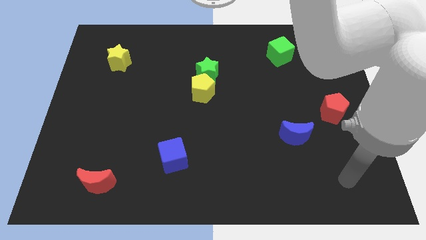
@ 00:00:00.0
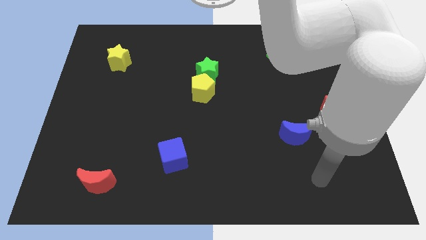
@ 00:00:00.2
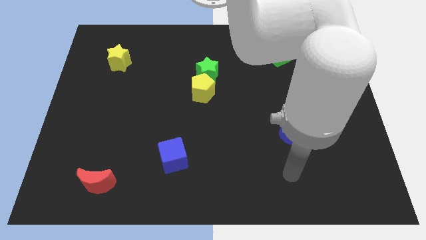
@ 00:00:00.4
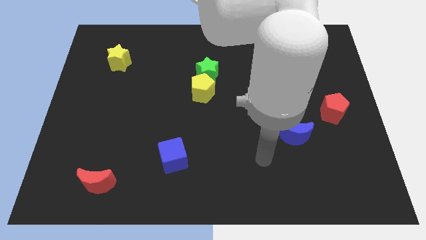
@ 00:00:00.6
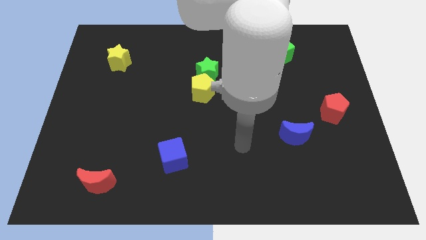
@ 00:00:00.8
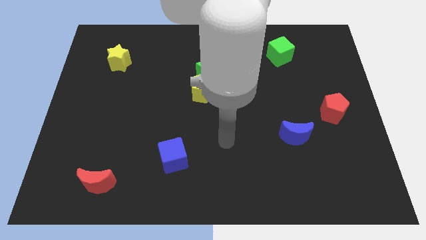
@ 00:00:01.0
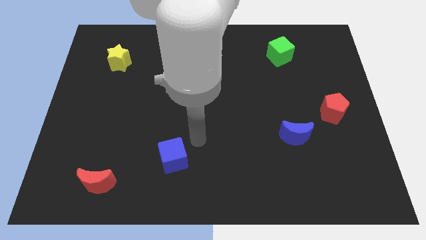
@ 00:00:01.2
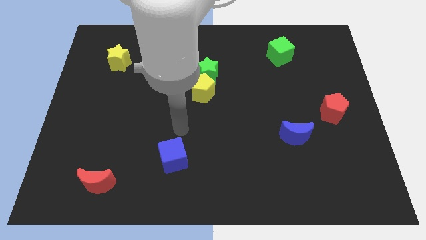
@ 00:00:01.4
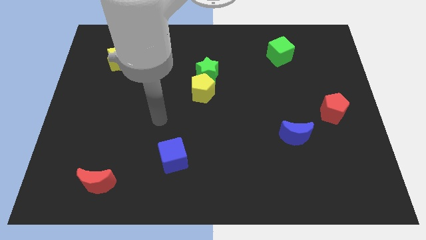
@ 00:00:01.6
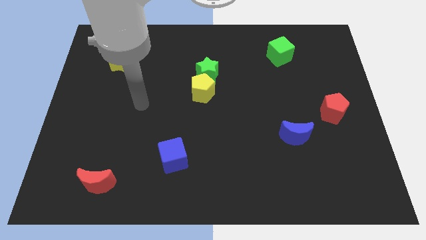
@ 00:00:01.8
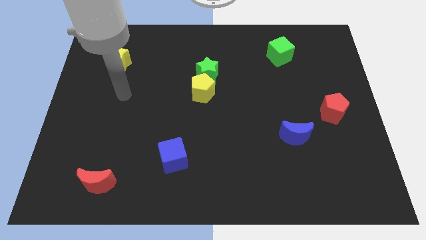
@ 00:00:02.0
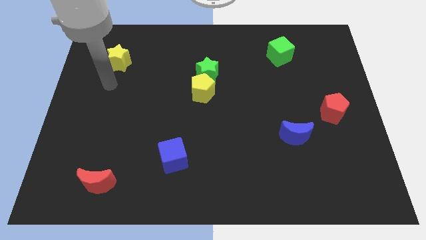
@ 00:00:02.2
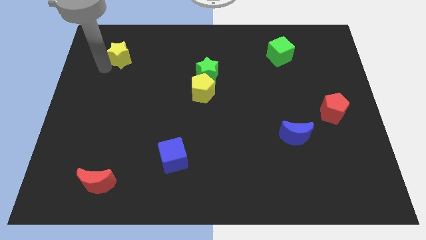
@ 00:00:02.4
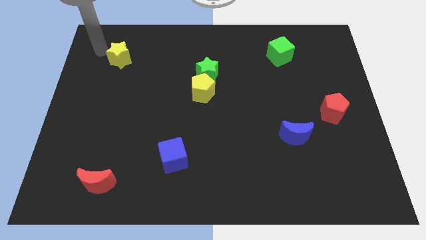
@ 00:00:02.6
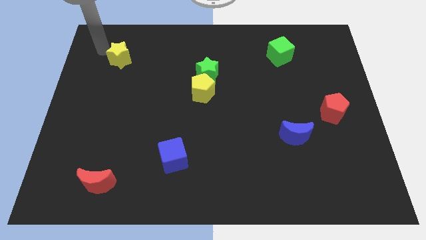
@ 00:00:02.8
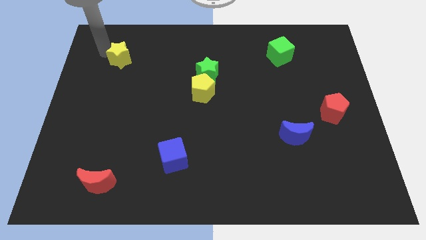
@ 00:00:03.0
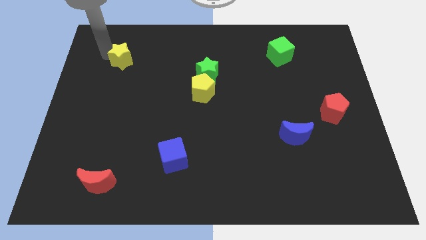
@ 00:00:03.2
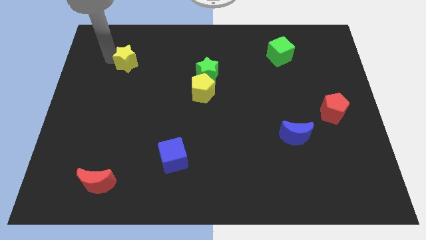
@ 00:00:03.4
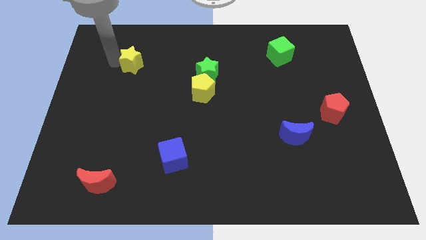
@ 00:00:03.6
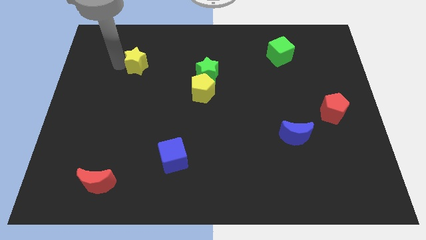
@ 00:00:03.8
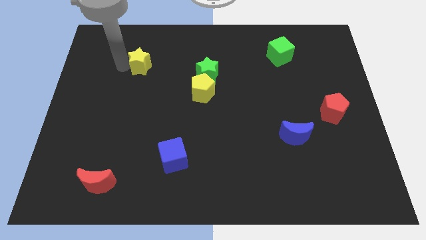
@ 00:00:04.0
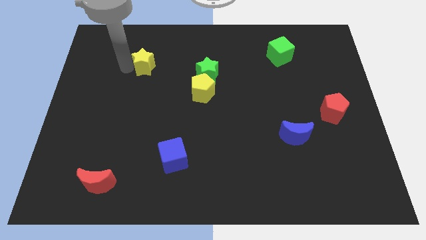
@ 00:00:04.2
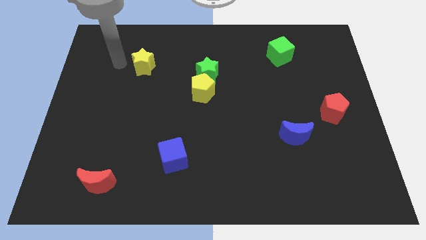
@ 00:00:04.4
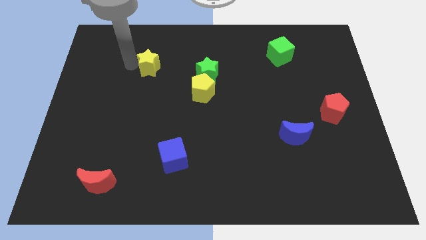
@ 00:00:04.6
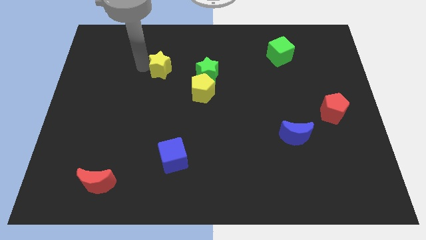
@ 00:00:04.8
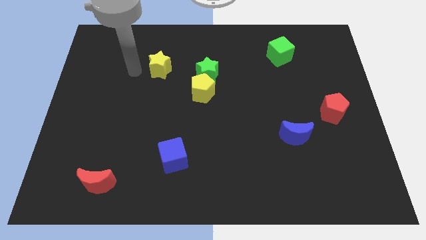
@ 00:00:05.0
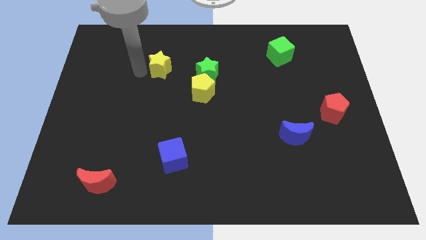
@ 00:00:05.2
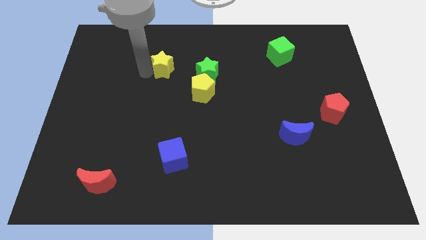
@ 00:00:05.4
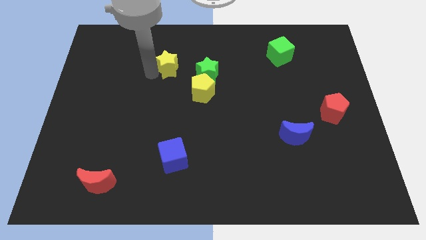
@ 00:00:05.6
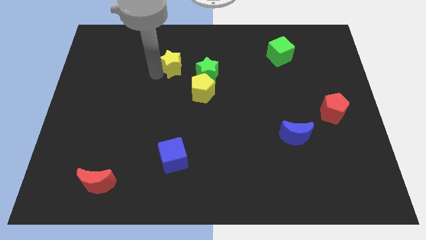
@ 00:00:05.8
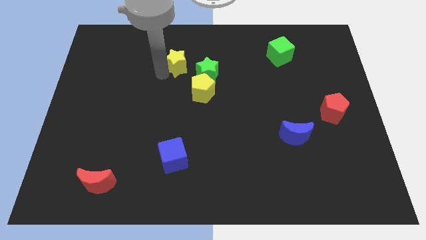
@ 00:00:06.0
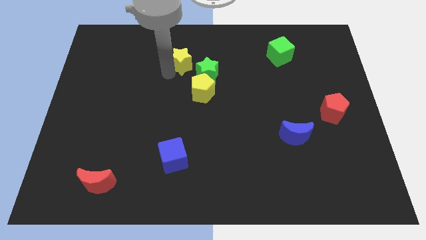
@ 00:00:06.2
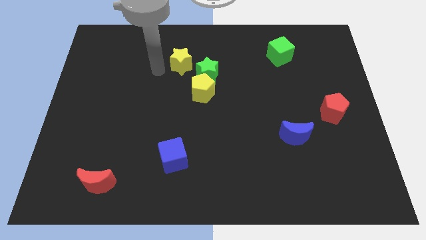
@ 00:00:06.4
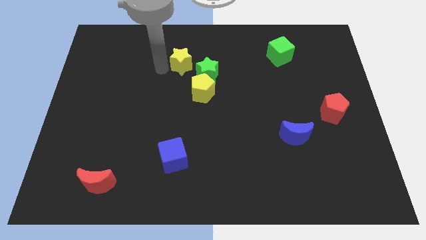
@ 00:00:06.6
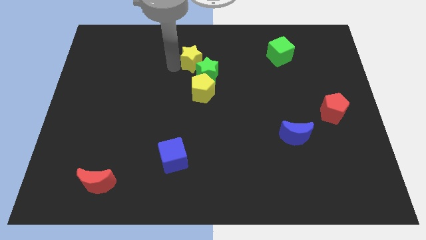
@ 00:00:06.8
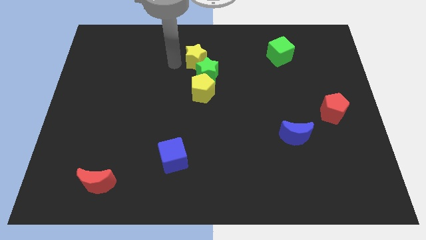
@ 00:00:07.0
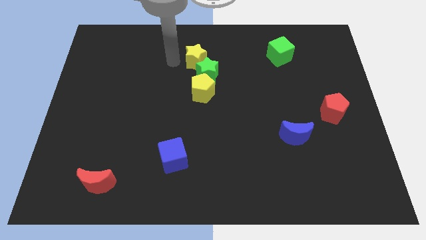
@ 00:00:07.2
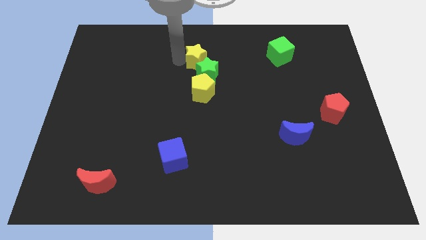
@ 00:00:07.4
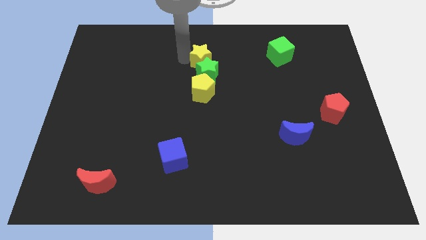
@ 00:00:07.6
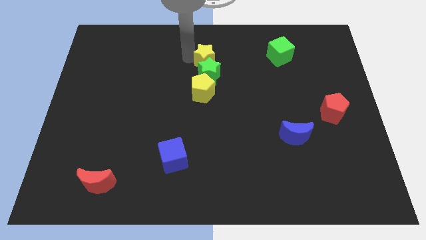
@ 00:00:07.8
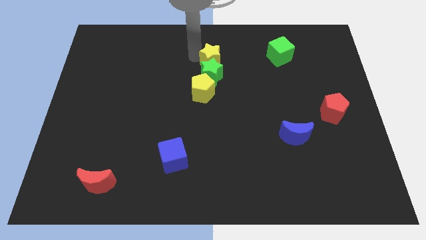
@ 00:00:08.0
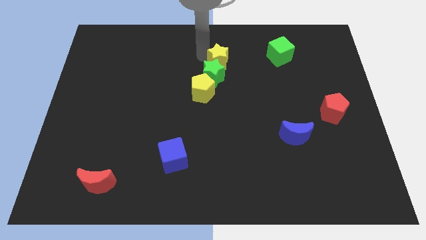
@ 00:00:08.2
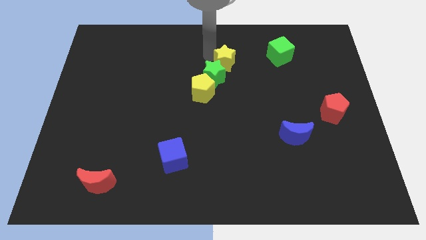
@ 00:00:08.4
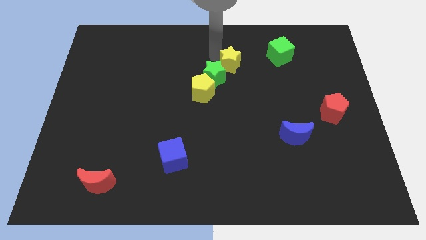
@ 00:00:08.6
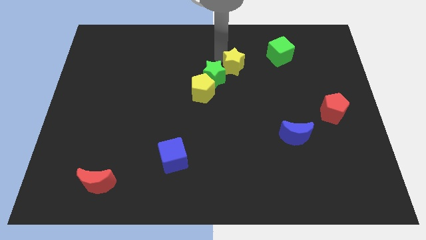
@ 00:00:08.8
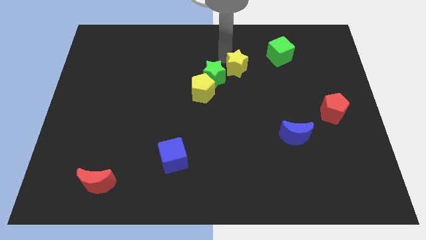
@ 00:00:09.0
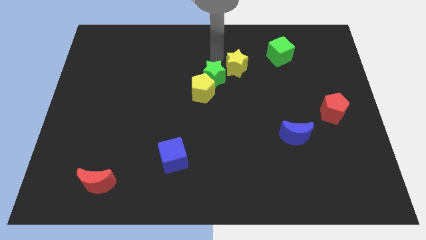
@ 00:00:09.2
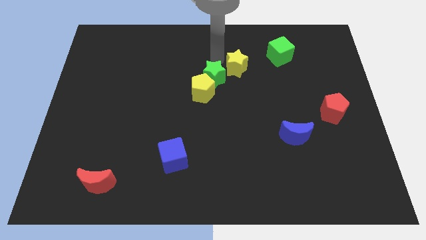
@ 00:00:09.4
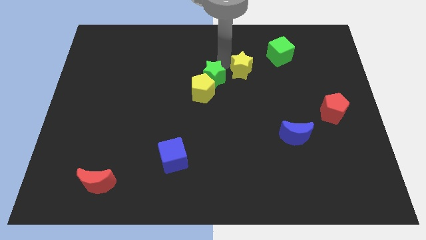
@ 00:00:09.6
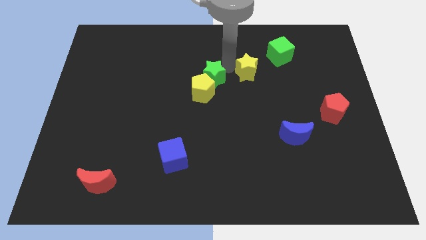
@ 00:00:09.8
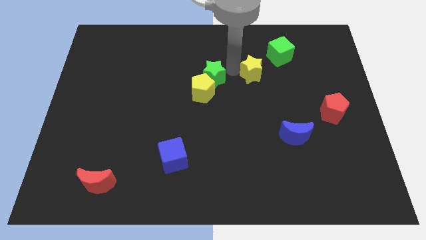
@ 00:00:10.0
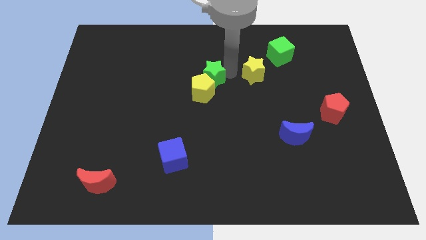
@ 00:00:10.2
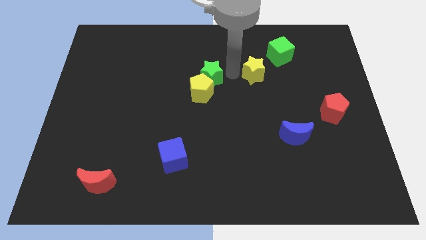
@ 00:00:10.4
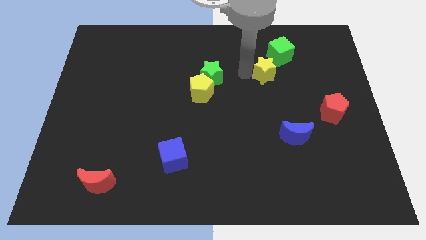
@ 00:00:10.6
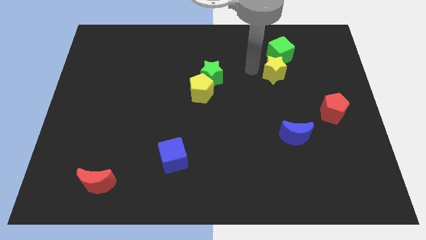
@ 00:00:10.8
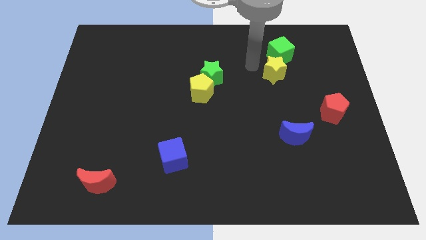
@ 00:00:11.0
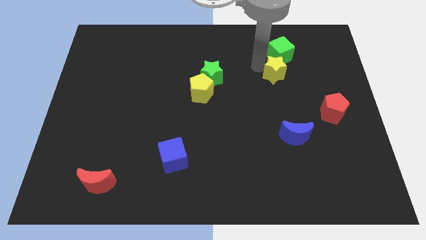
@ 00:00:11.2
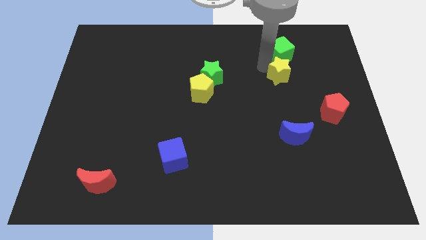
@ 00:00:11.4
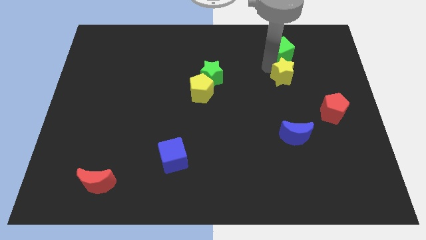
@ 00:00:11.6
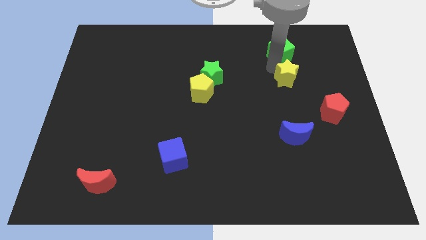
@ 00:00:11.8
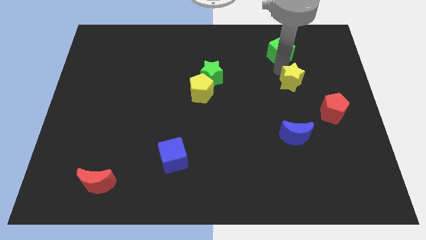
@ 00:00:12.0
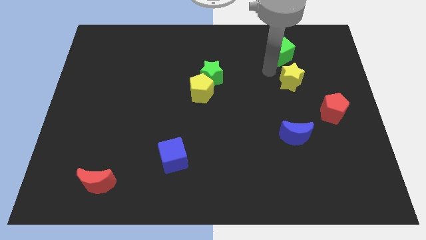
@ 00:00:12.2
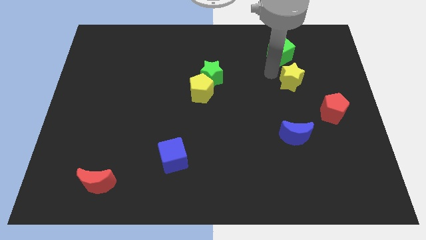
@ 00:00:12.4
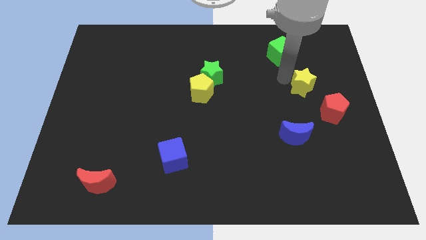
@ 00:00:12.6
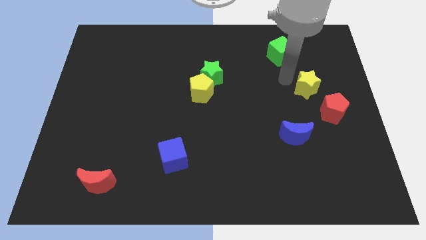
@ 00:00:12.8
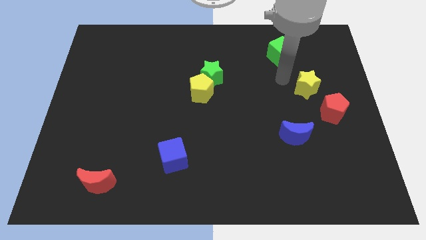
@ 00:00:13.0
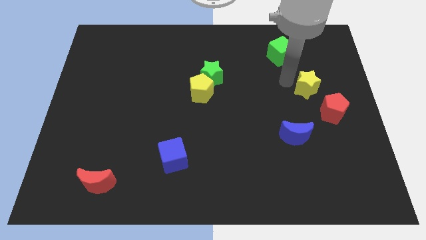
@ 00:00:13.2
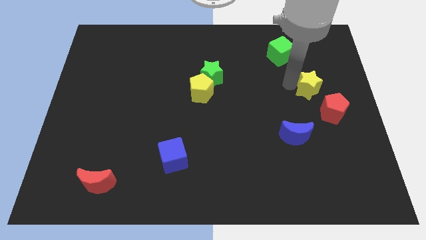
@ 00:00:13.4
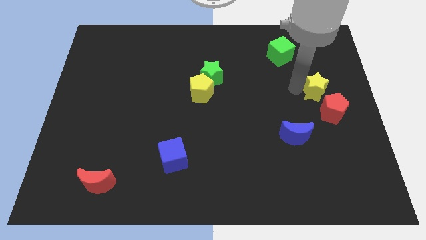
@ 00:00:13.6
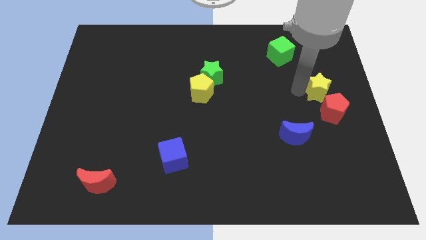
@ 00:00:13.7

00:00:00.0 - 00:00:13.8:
slide the yellow star to the right side of the board
